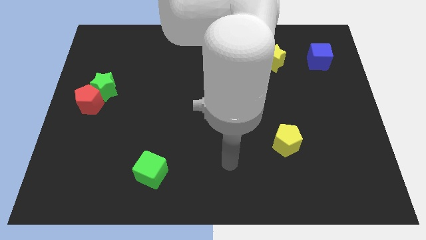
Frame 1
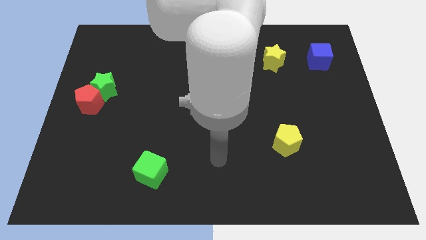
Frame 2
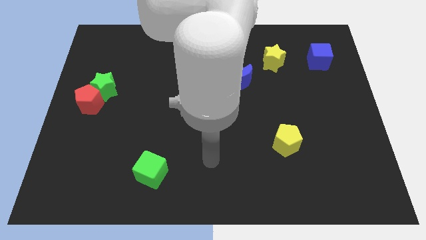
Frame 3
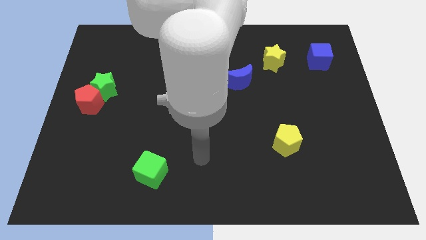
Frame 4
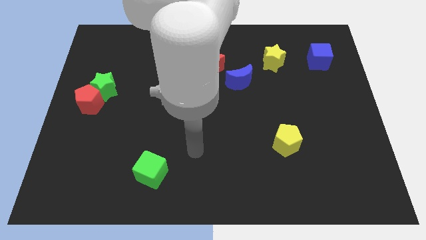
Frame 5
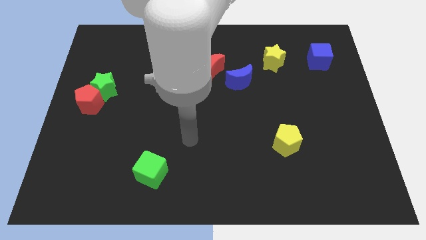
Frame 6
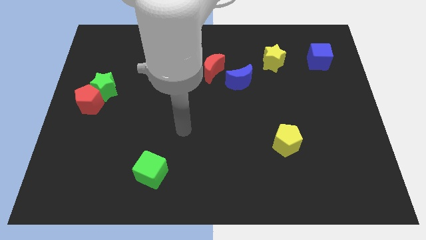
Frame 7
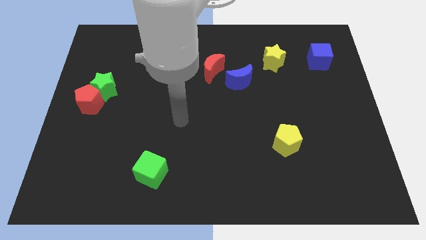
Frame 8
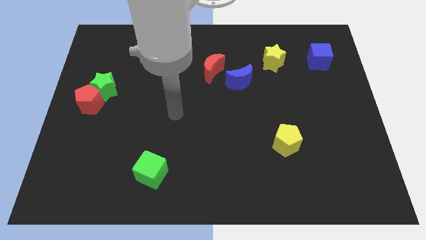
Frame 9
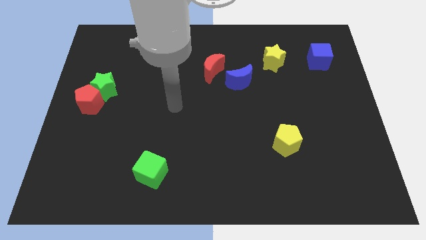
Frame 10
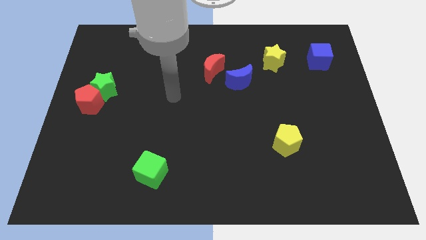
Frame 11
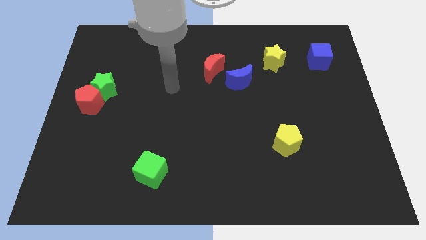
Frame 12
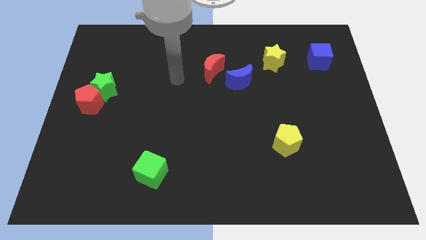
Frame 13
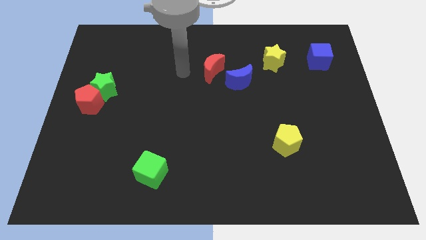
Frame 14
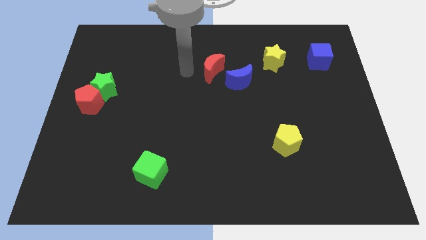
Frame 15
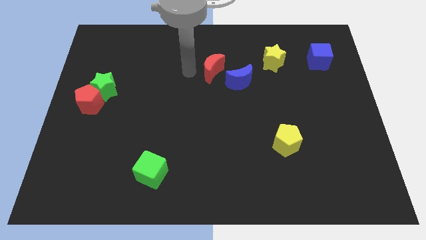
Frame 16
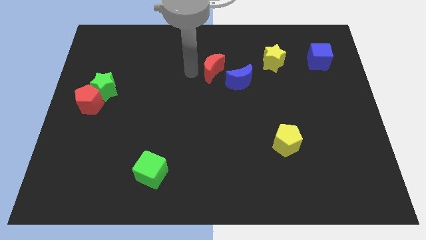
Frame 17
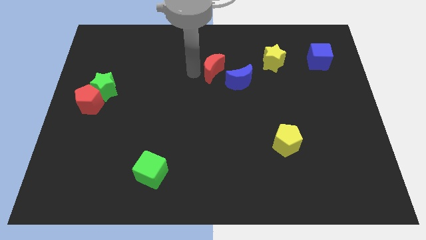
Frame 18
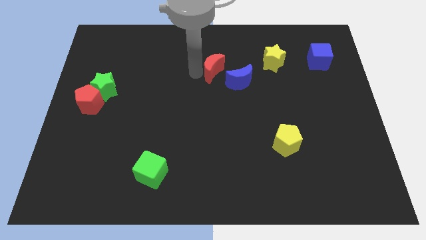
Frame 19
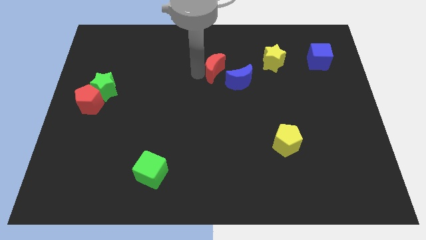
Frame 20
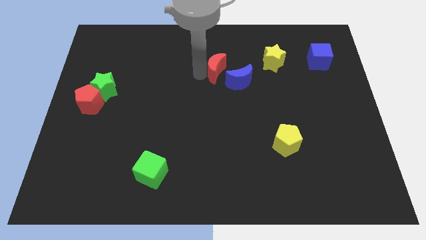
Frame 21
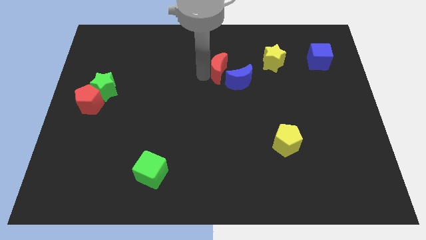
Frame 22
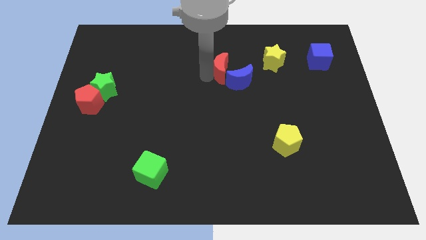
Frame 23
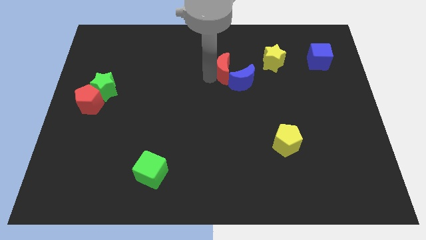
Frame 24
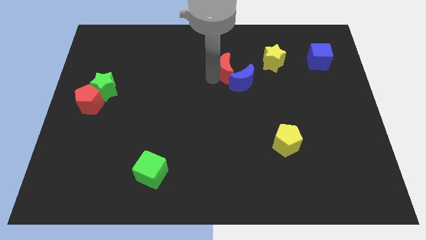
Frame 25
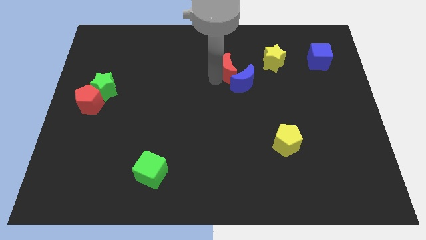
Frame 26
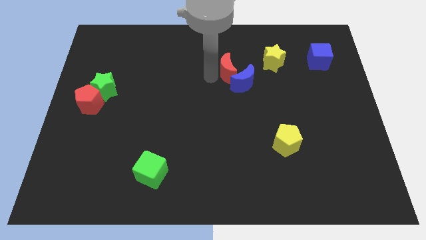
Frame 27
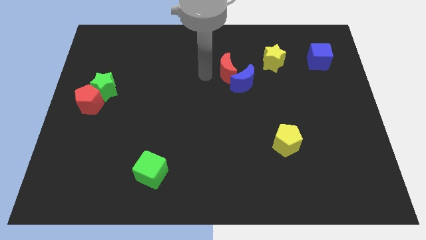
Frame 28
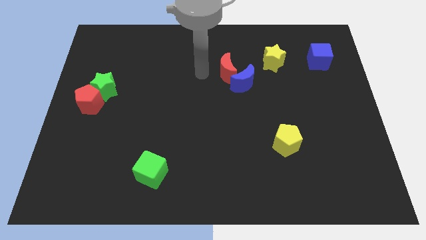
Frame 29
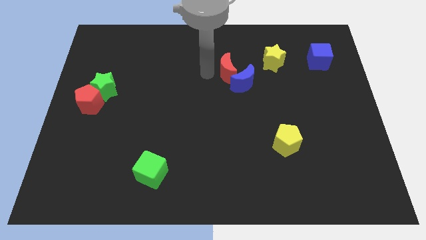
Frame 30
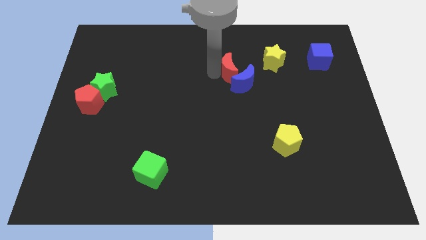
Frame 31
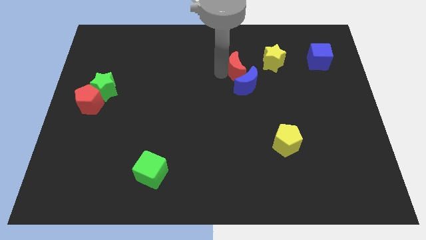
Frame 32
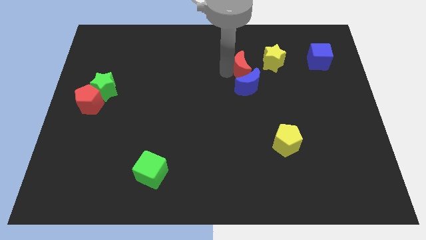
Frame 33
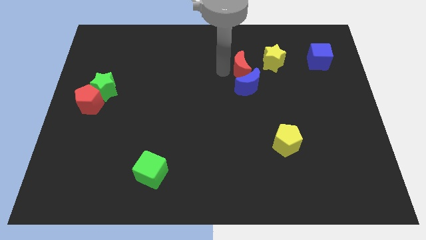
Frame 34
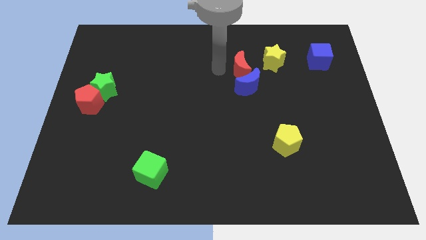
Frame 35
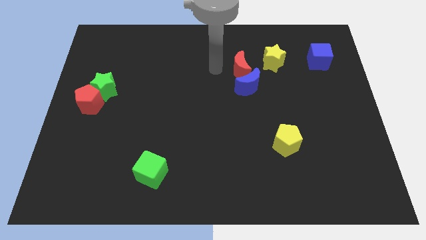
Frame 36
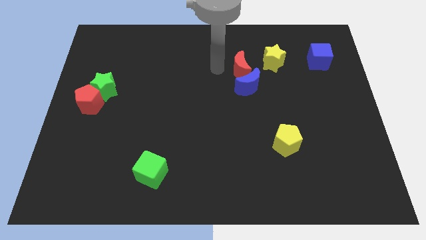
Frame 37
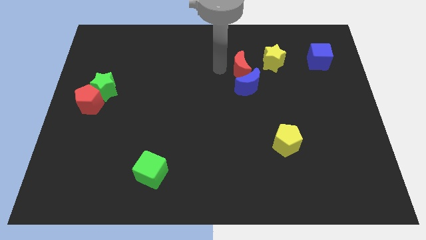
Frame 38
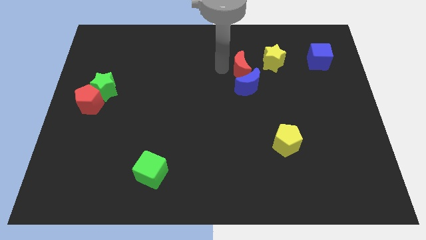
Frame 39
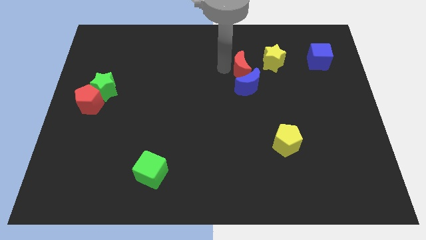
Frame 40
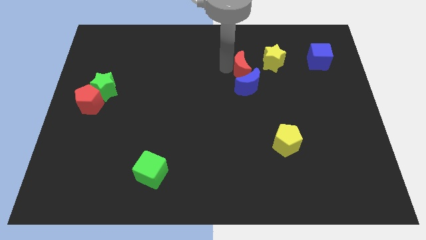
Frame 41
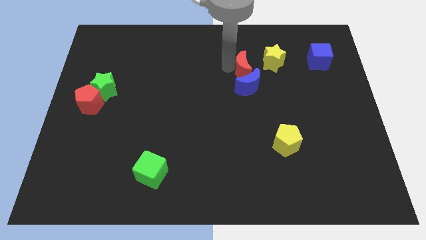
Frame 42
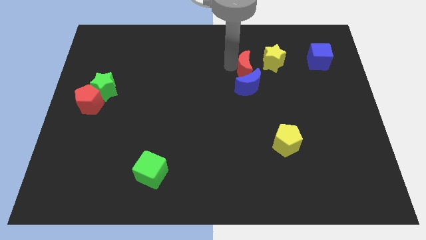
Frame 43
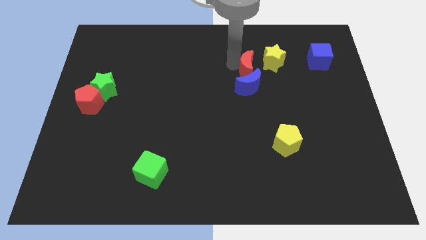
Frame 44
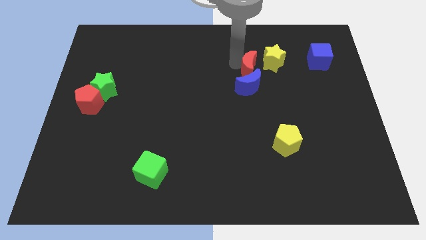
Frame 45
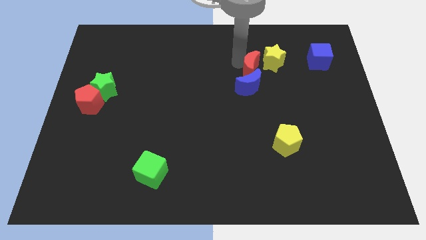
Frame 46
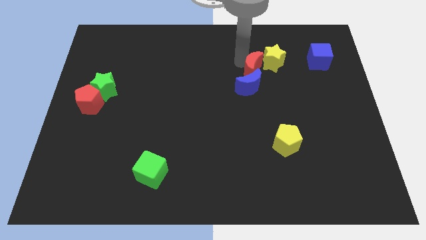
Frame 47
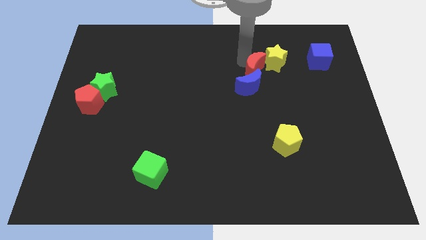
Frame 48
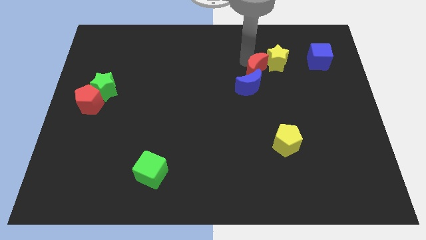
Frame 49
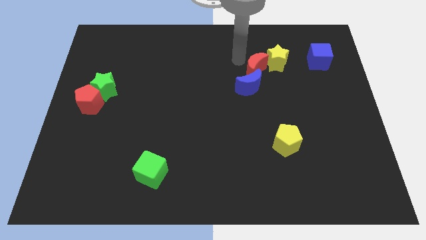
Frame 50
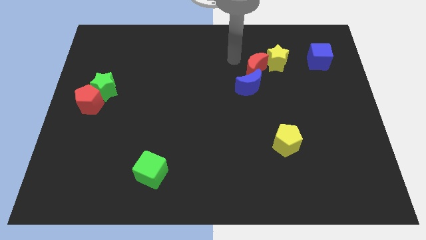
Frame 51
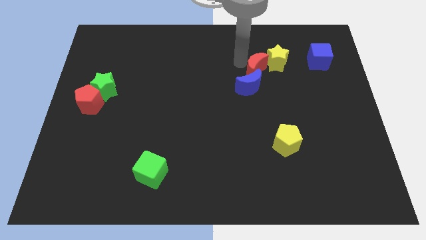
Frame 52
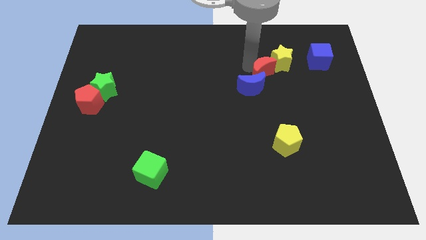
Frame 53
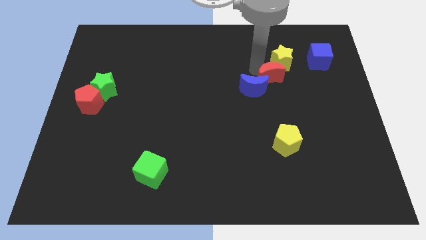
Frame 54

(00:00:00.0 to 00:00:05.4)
put the red moon to the right side of the blue moon

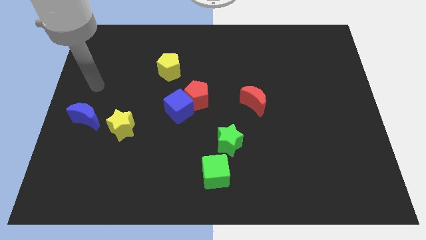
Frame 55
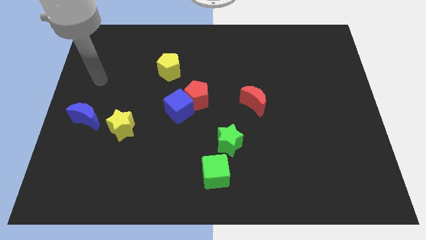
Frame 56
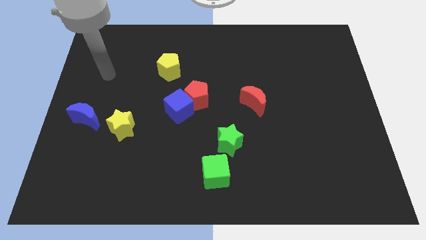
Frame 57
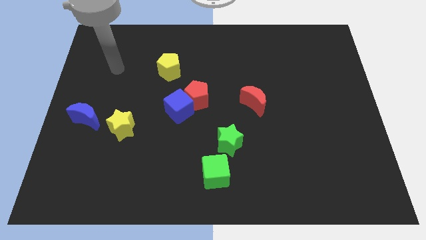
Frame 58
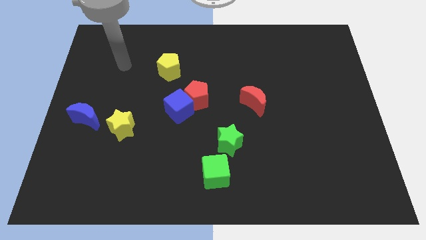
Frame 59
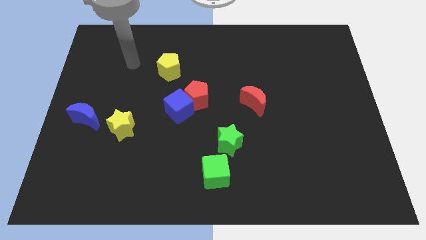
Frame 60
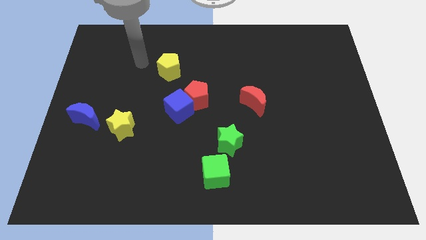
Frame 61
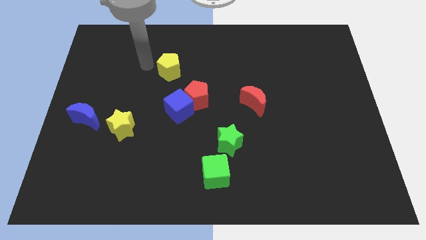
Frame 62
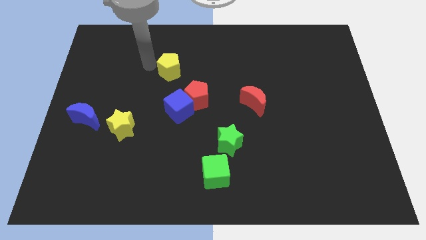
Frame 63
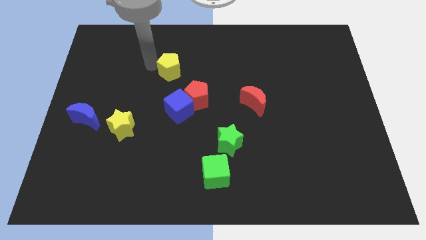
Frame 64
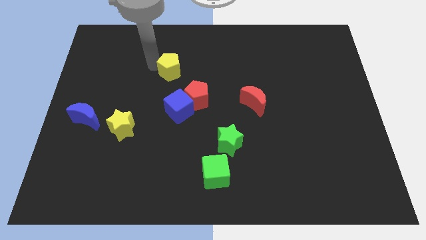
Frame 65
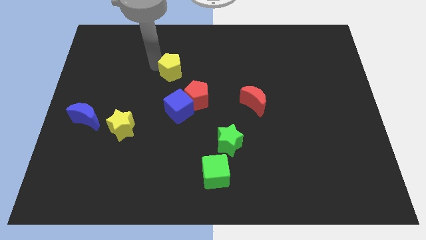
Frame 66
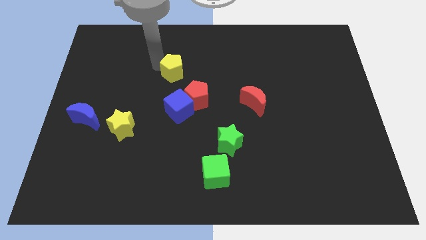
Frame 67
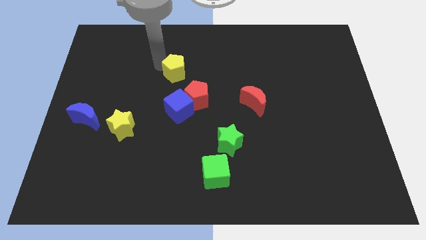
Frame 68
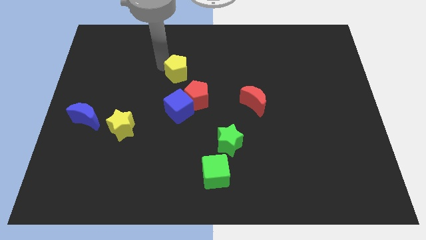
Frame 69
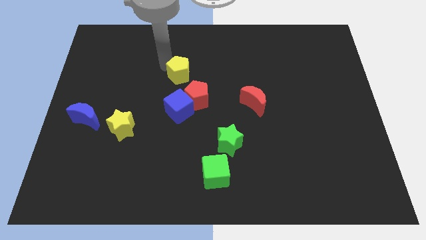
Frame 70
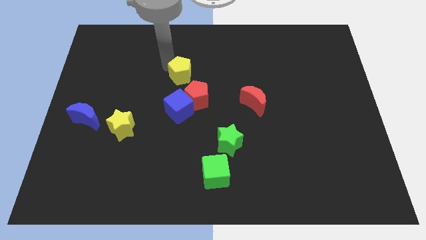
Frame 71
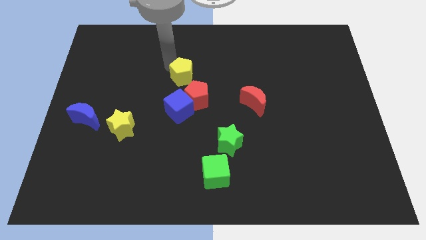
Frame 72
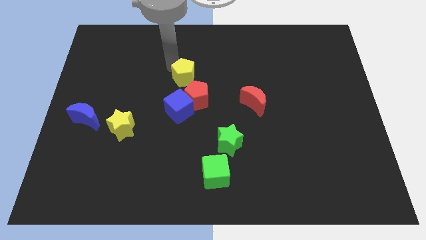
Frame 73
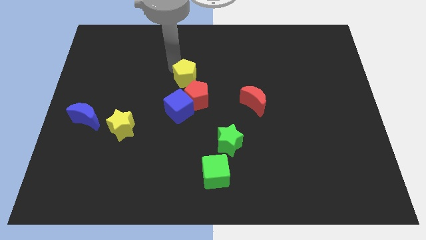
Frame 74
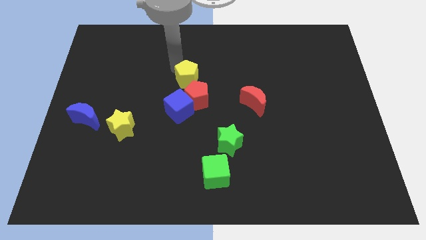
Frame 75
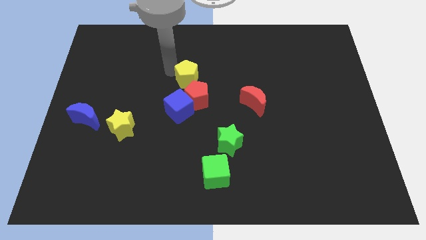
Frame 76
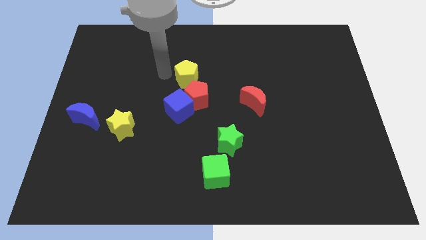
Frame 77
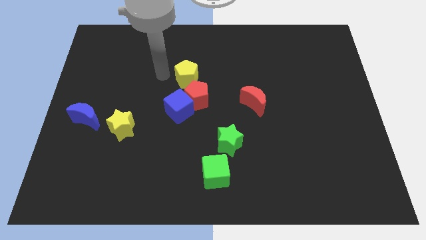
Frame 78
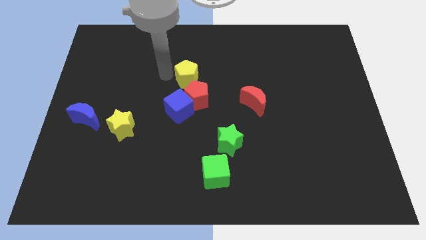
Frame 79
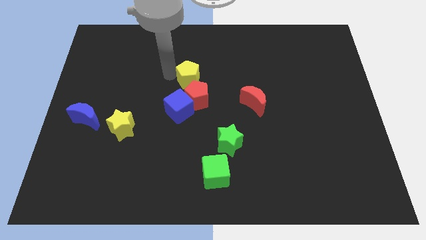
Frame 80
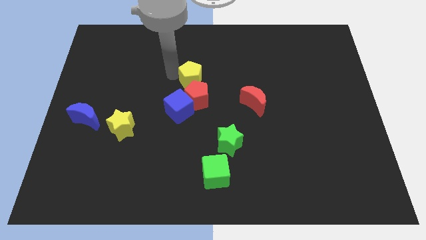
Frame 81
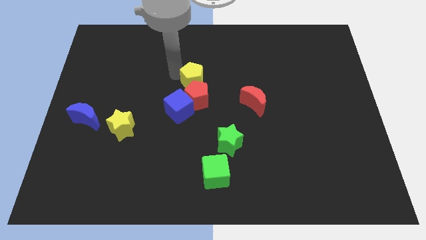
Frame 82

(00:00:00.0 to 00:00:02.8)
move the yellow pentagon to the top right side of the red pentagon
